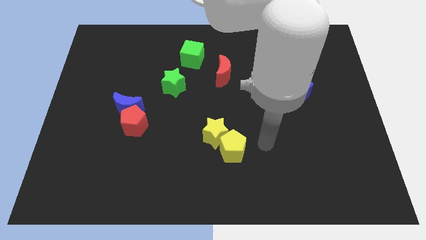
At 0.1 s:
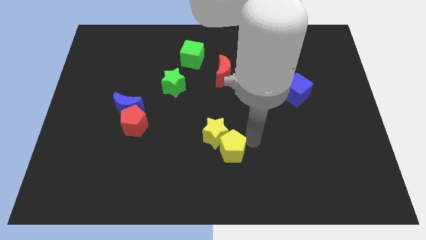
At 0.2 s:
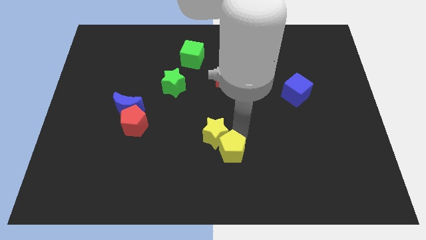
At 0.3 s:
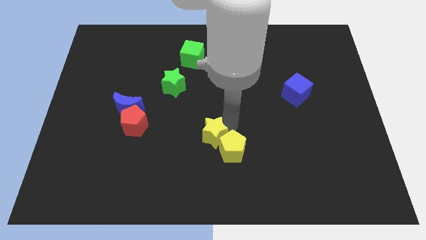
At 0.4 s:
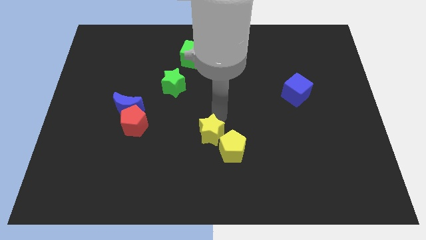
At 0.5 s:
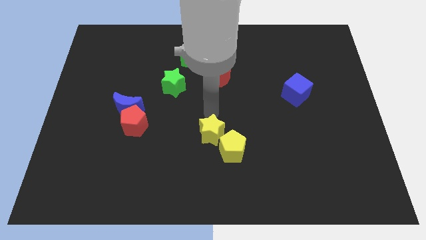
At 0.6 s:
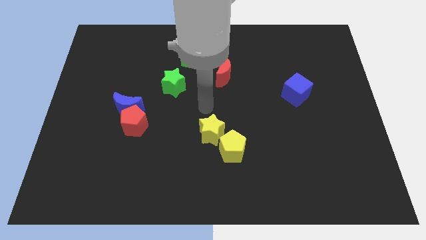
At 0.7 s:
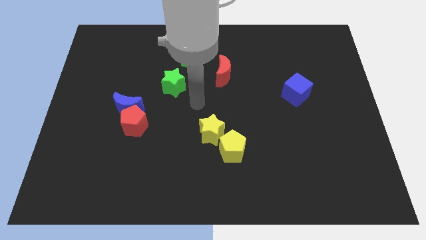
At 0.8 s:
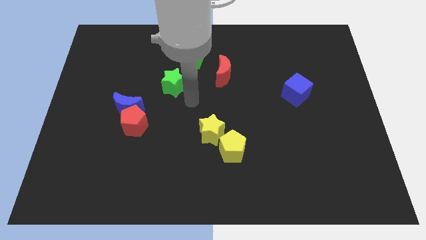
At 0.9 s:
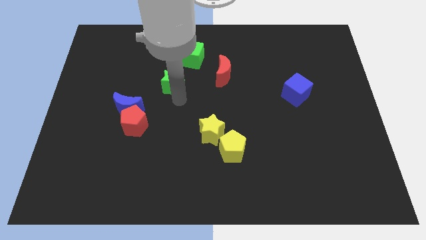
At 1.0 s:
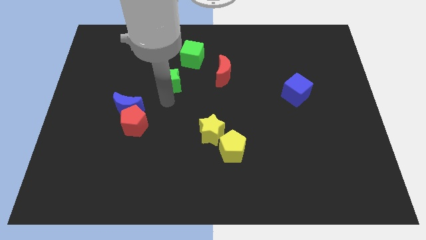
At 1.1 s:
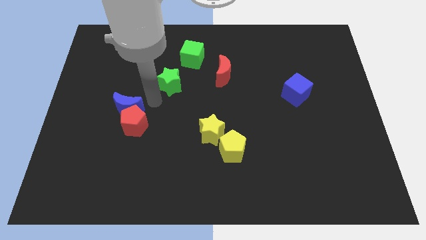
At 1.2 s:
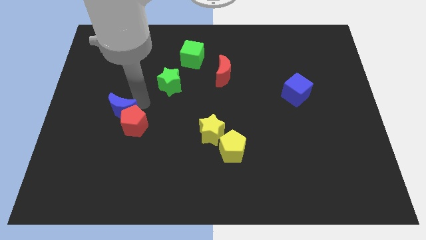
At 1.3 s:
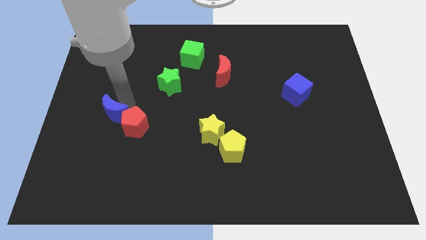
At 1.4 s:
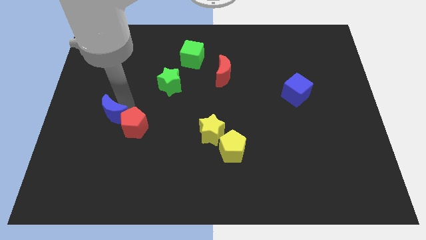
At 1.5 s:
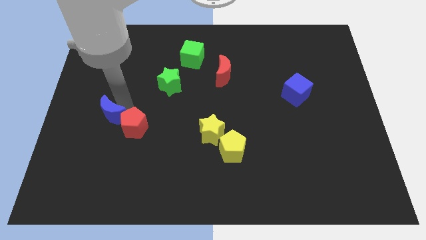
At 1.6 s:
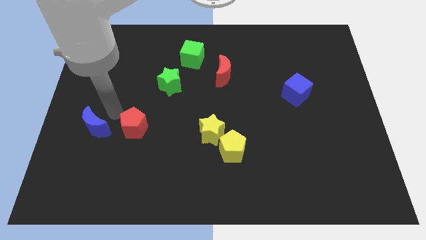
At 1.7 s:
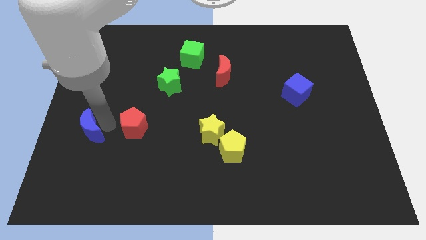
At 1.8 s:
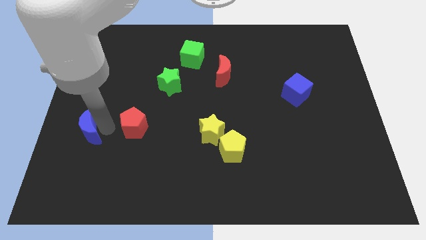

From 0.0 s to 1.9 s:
pull the red pentagon apart from the blue moon

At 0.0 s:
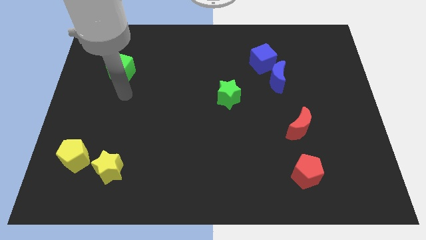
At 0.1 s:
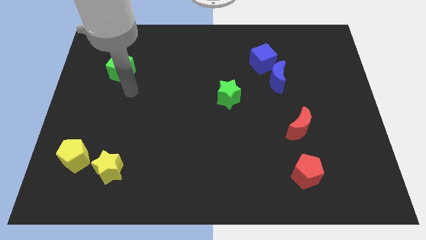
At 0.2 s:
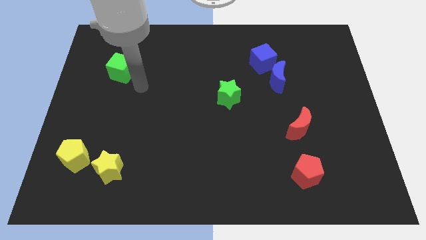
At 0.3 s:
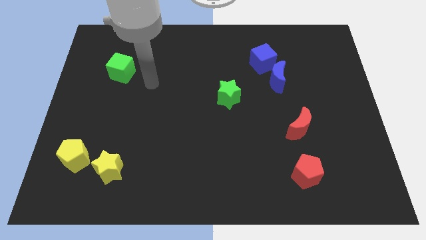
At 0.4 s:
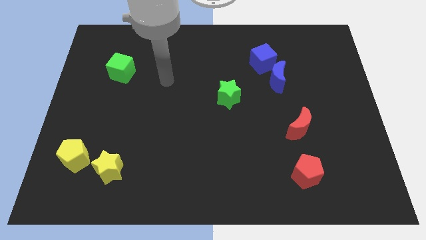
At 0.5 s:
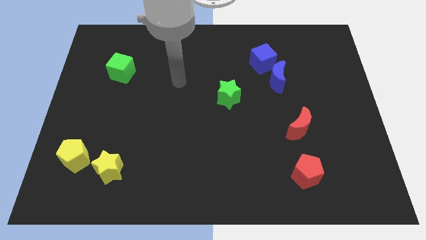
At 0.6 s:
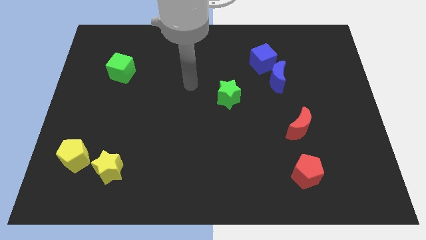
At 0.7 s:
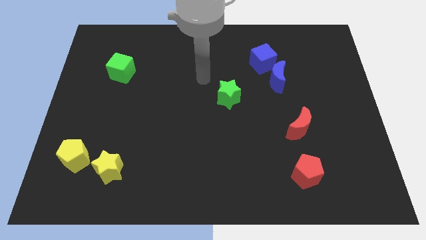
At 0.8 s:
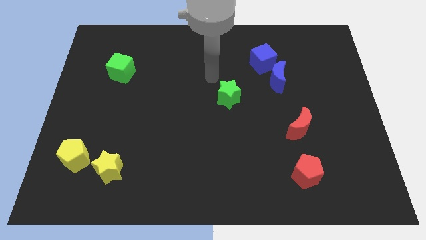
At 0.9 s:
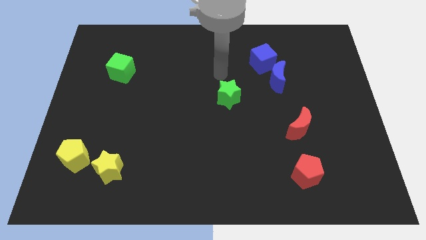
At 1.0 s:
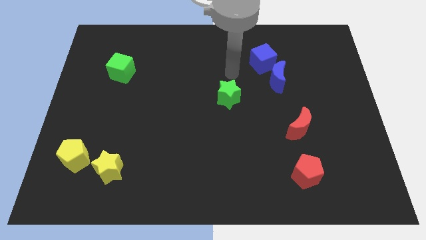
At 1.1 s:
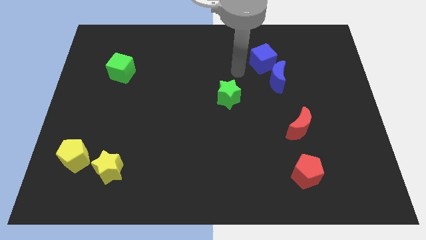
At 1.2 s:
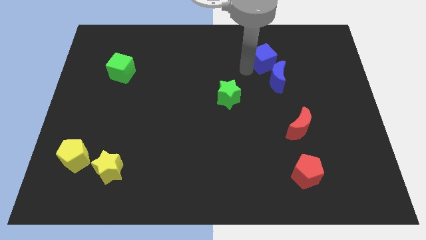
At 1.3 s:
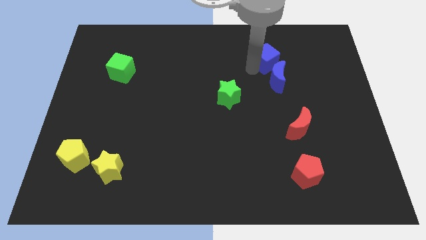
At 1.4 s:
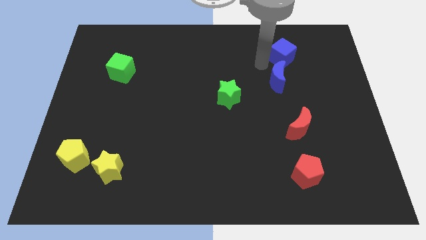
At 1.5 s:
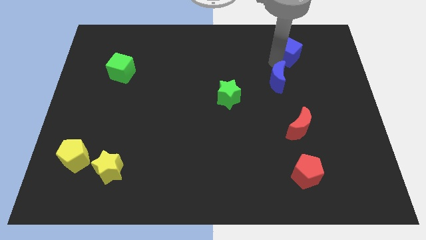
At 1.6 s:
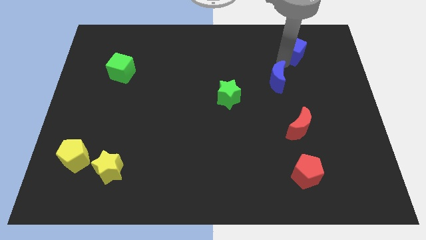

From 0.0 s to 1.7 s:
move the blue moon away from the blue cube

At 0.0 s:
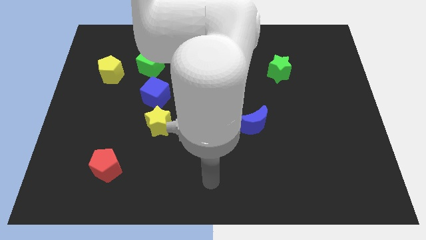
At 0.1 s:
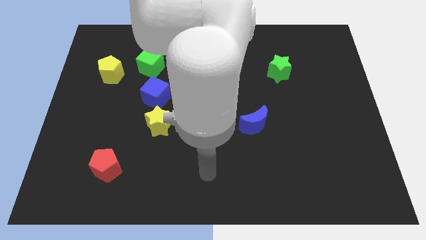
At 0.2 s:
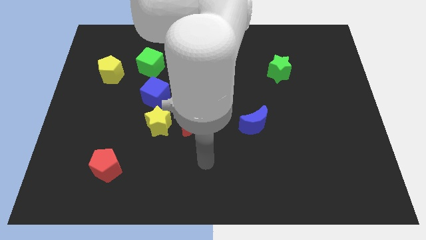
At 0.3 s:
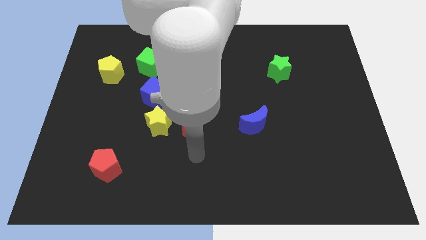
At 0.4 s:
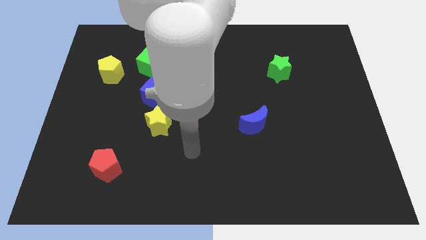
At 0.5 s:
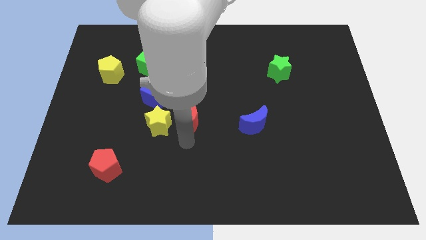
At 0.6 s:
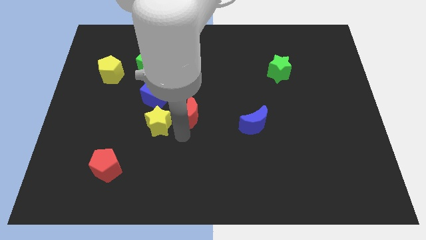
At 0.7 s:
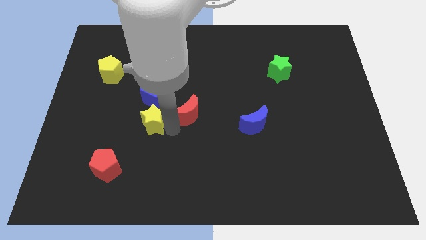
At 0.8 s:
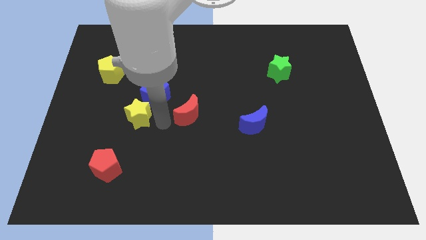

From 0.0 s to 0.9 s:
move the red moon away from the yellow star

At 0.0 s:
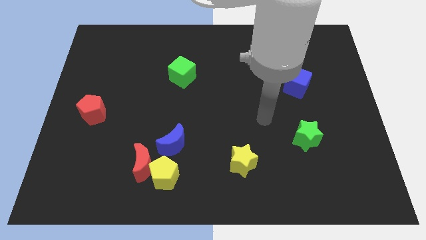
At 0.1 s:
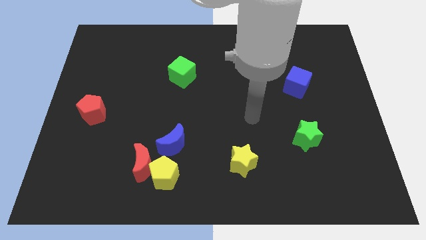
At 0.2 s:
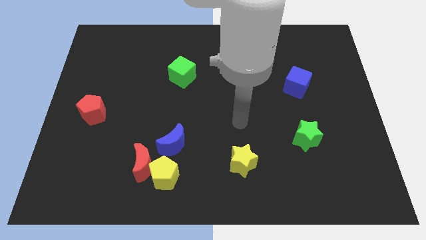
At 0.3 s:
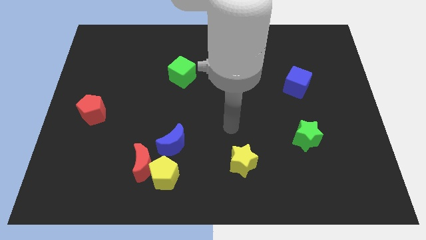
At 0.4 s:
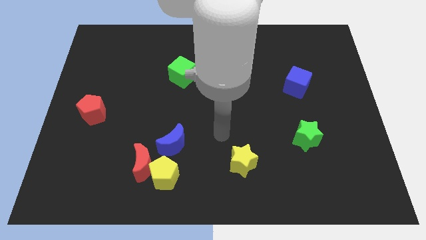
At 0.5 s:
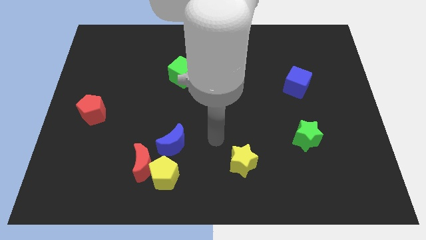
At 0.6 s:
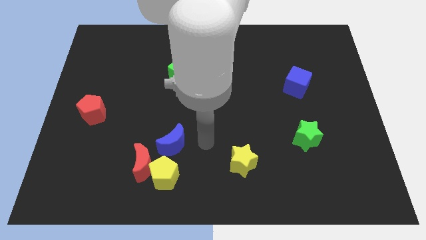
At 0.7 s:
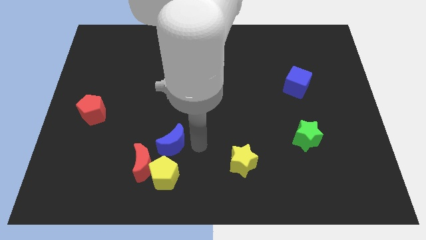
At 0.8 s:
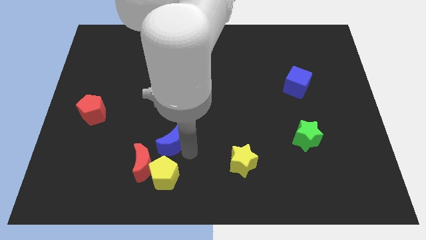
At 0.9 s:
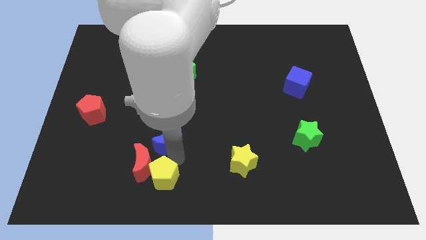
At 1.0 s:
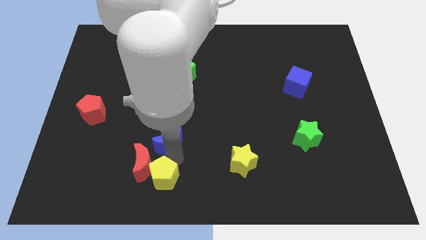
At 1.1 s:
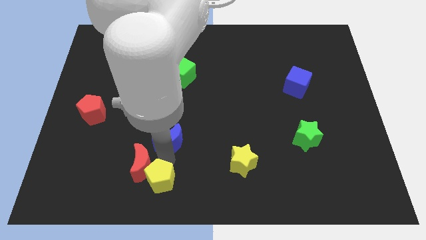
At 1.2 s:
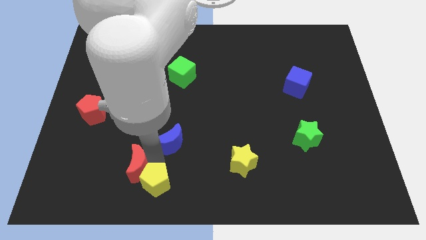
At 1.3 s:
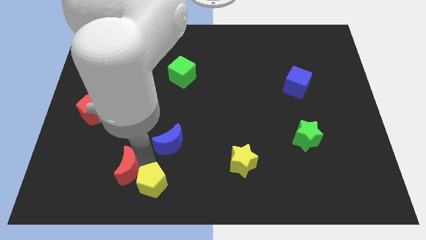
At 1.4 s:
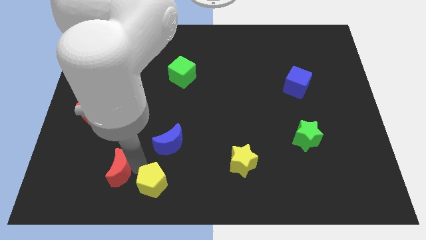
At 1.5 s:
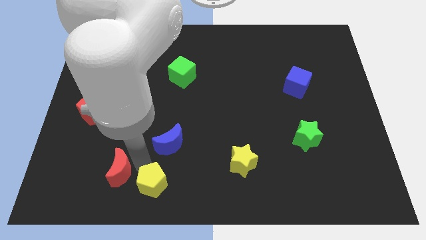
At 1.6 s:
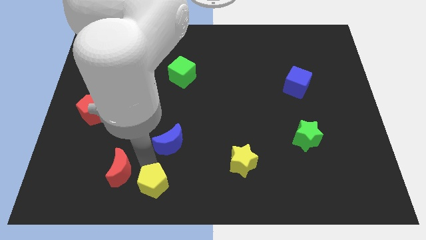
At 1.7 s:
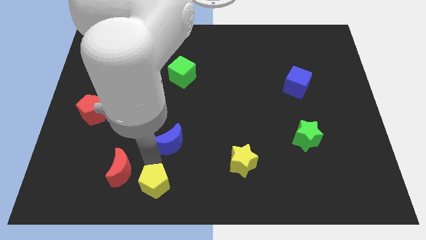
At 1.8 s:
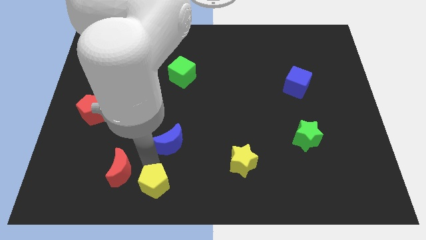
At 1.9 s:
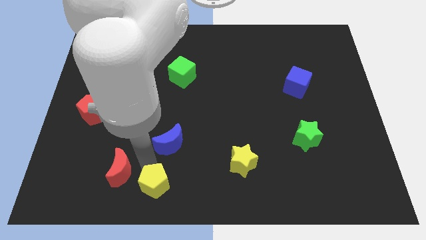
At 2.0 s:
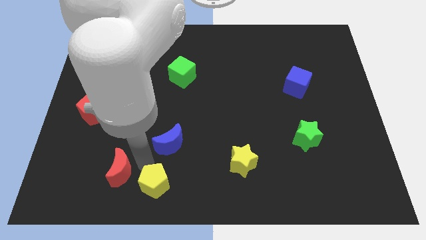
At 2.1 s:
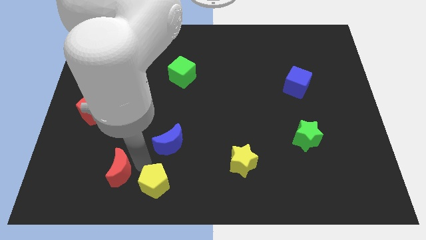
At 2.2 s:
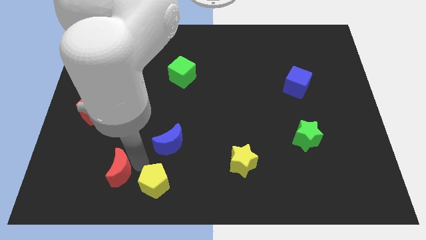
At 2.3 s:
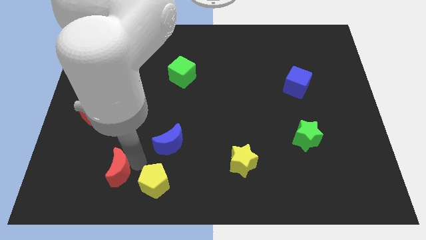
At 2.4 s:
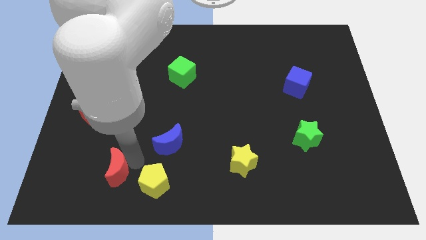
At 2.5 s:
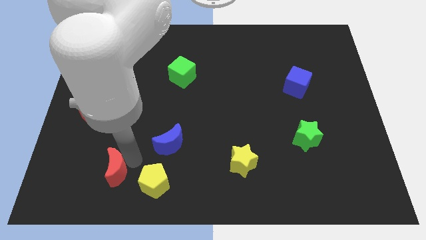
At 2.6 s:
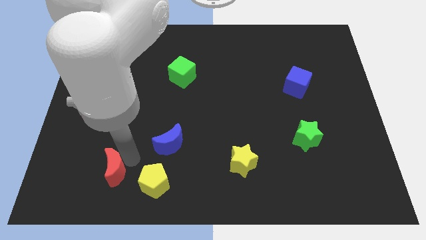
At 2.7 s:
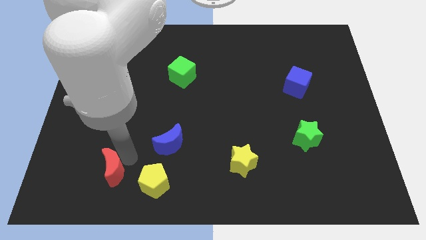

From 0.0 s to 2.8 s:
pull the red moon apart from the yellow pentagon and blue moon

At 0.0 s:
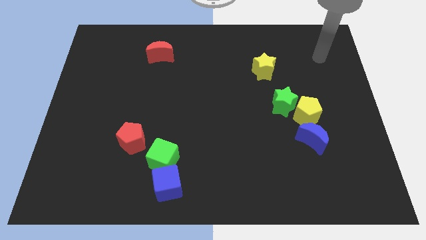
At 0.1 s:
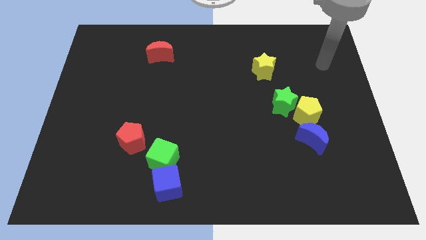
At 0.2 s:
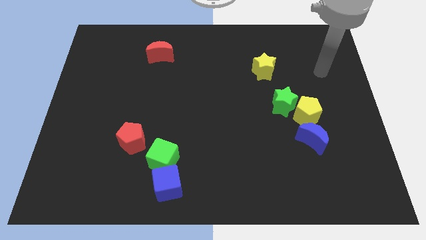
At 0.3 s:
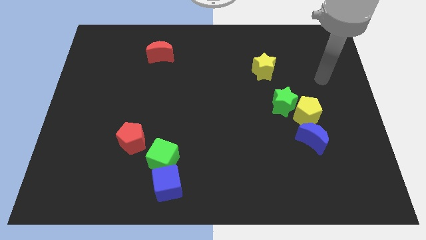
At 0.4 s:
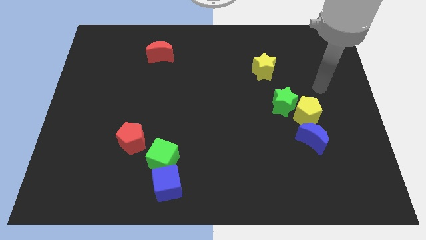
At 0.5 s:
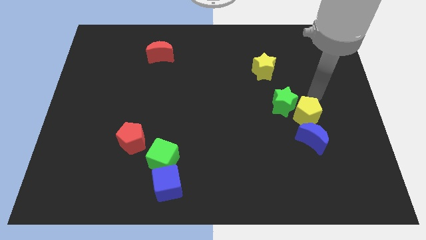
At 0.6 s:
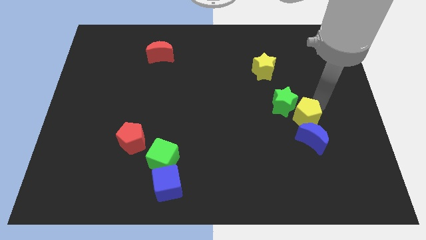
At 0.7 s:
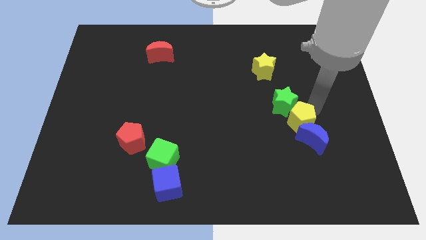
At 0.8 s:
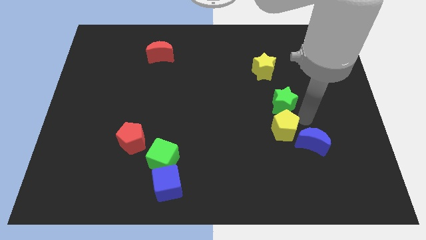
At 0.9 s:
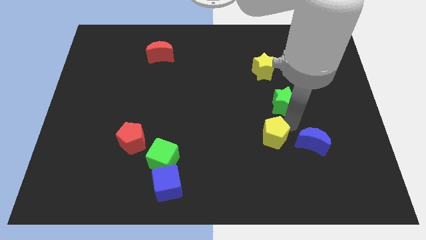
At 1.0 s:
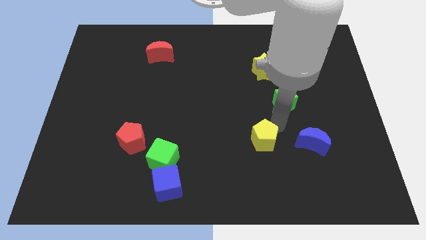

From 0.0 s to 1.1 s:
pull the green star apart from the yellow pentagon

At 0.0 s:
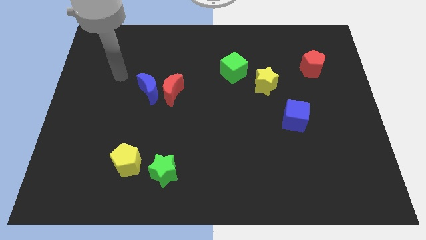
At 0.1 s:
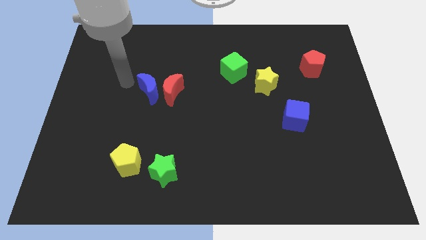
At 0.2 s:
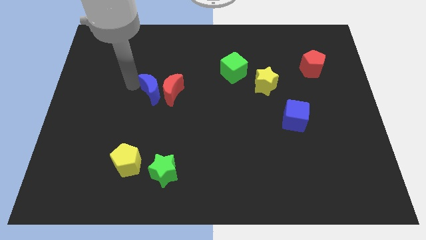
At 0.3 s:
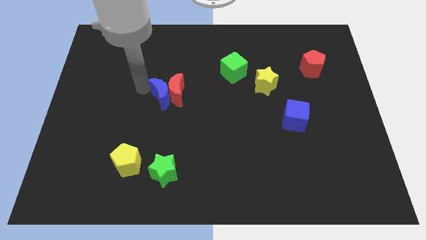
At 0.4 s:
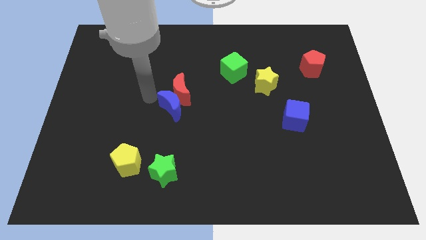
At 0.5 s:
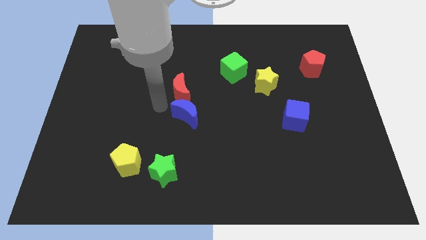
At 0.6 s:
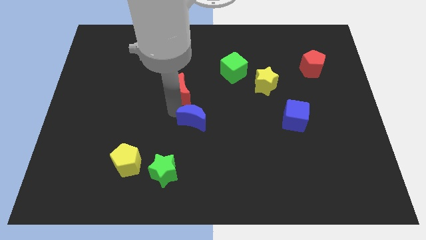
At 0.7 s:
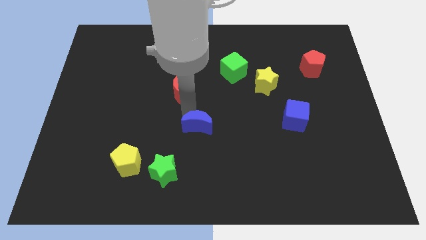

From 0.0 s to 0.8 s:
separate the red moon from the blue moon

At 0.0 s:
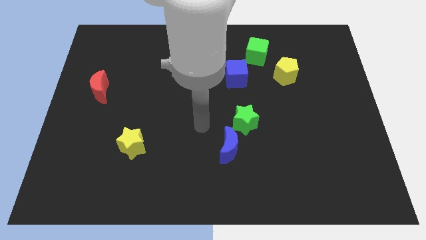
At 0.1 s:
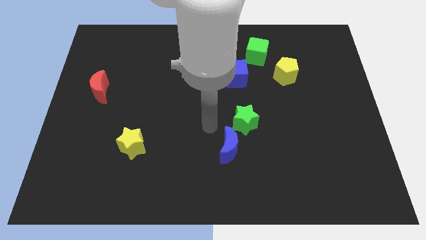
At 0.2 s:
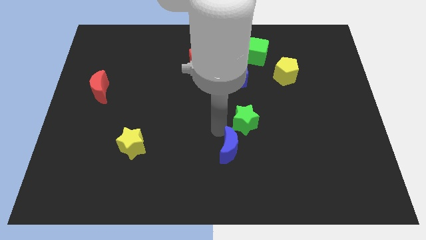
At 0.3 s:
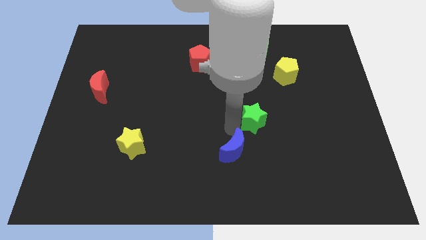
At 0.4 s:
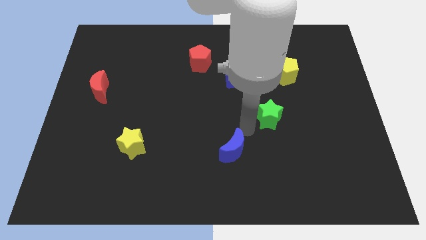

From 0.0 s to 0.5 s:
separate the blue moon from the green star
